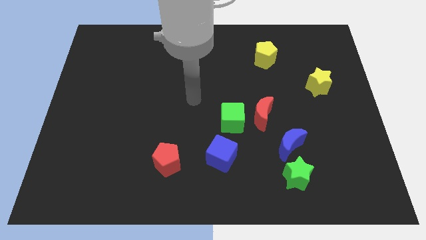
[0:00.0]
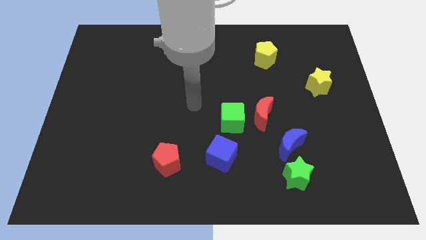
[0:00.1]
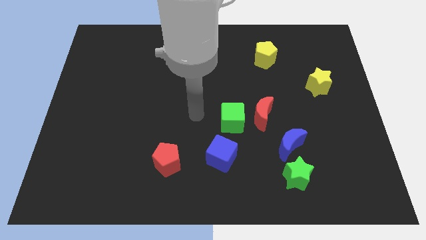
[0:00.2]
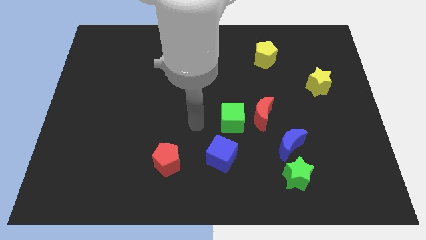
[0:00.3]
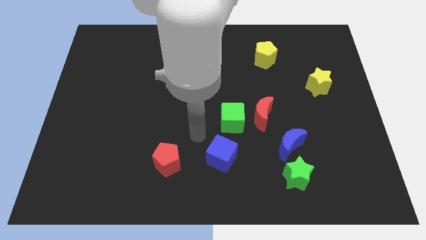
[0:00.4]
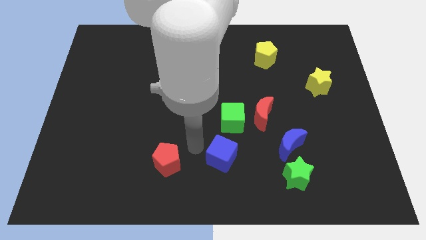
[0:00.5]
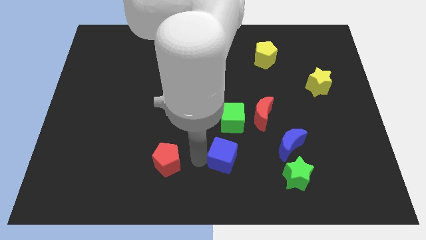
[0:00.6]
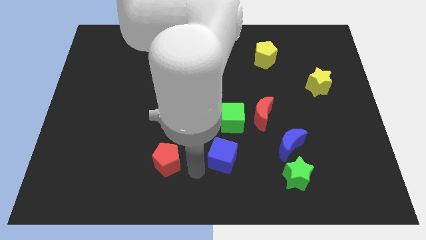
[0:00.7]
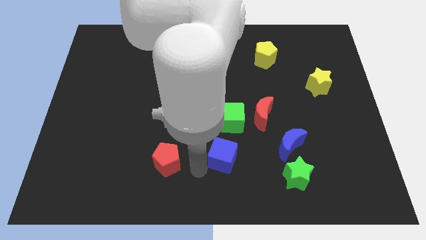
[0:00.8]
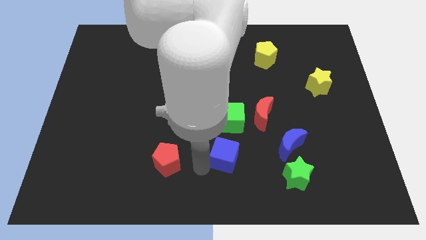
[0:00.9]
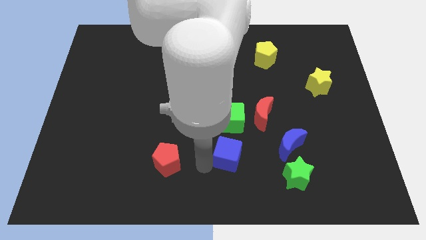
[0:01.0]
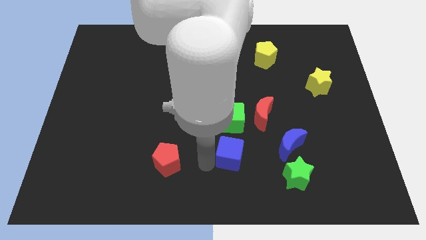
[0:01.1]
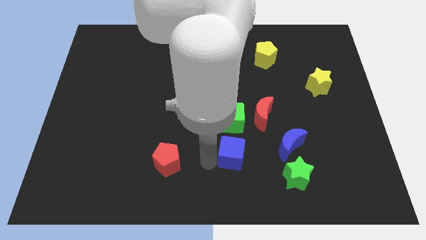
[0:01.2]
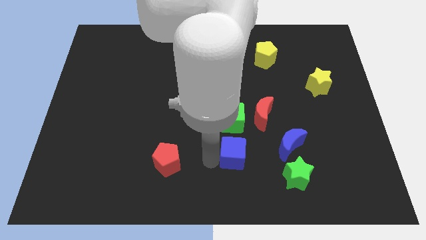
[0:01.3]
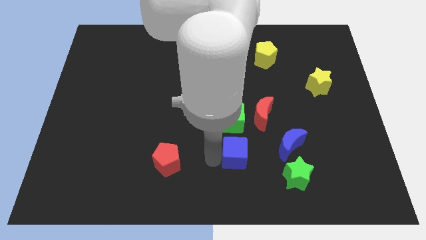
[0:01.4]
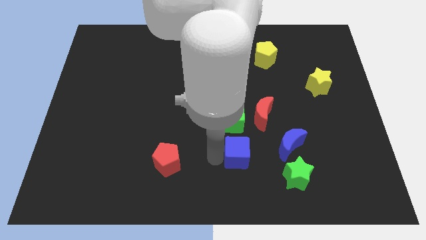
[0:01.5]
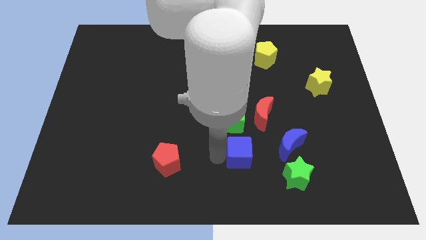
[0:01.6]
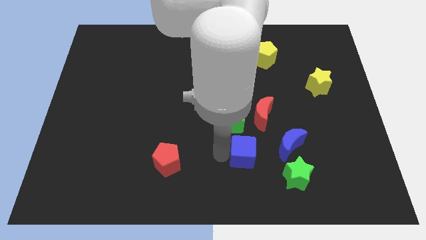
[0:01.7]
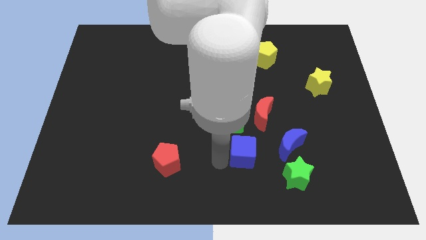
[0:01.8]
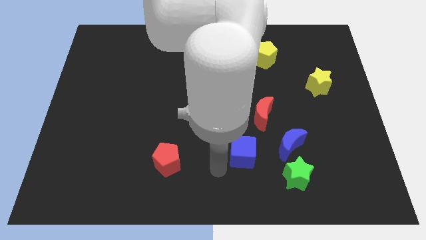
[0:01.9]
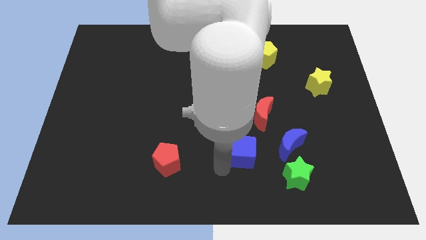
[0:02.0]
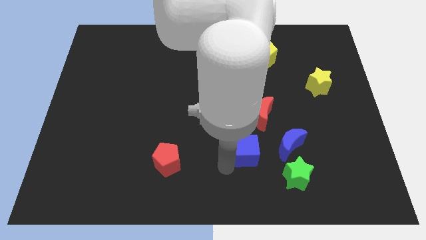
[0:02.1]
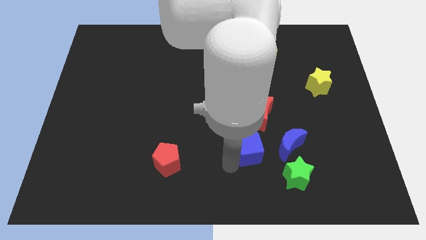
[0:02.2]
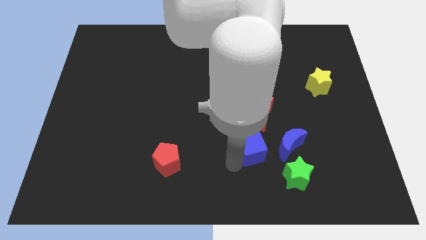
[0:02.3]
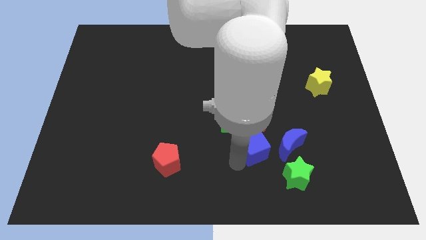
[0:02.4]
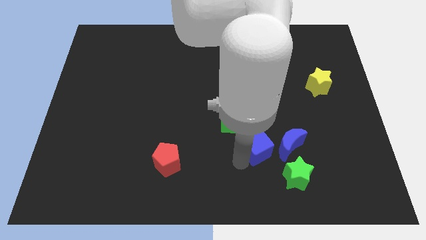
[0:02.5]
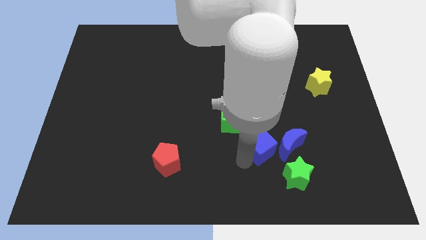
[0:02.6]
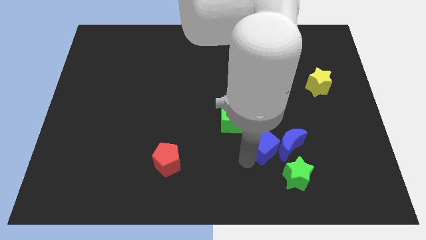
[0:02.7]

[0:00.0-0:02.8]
slide the blue cube slightly up and then to the right

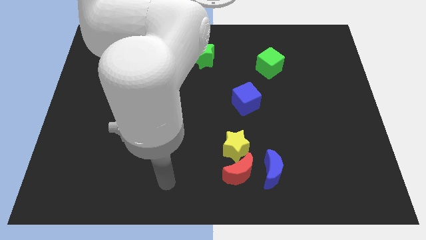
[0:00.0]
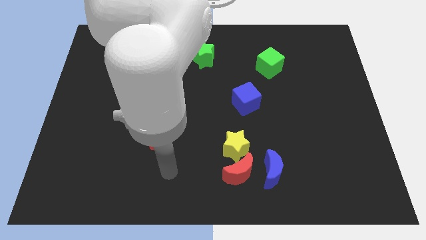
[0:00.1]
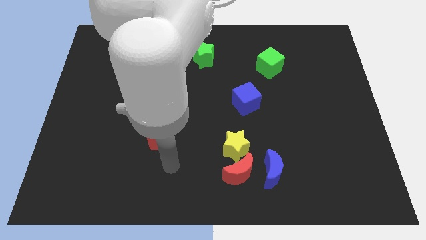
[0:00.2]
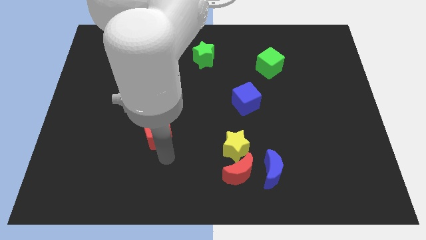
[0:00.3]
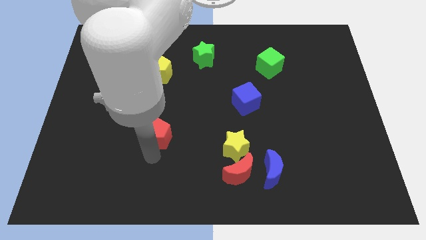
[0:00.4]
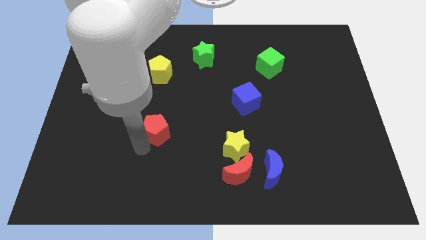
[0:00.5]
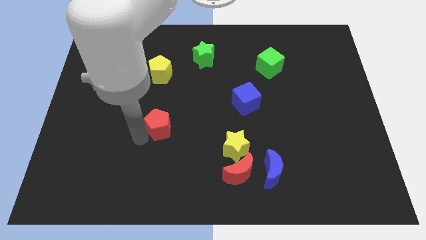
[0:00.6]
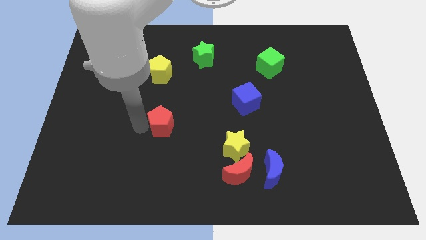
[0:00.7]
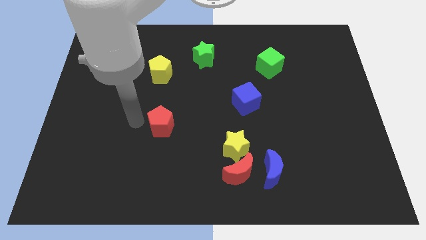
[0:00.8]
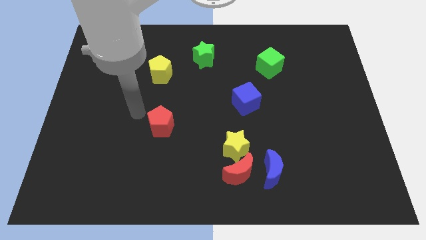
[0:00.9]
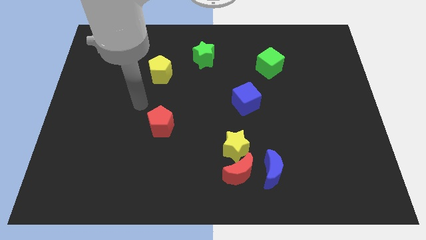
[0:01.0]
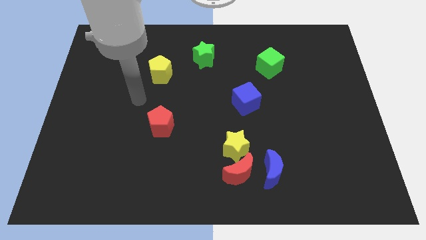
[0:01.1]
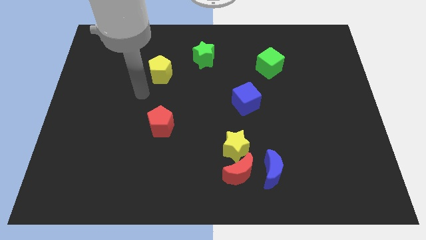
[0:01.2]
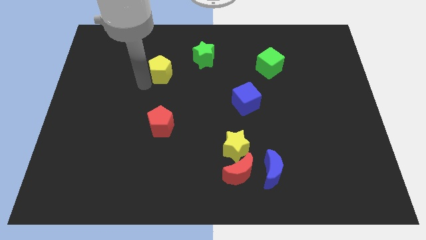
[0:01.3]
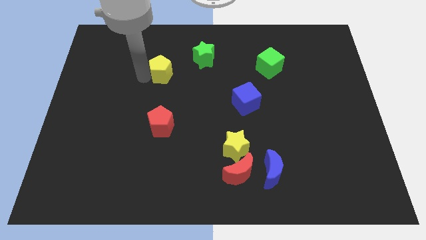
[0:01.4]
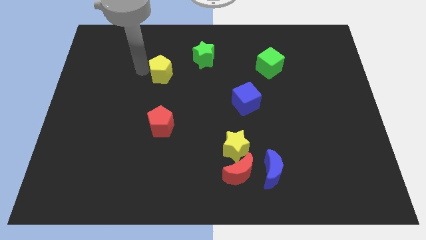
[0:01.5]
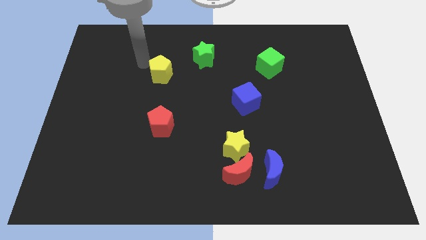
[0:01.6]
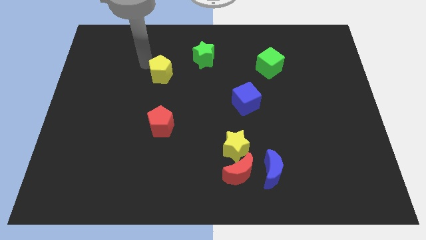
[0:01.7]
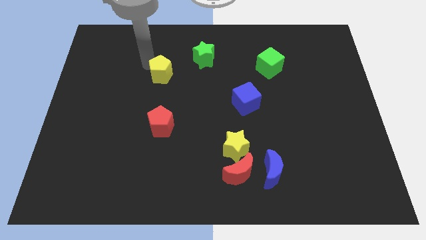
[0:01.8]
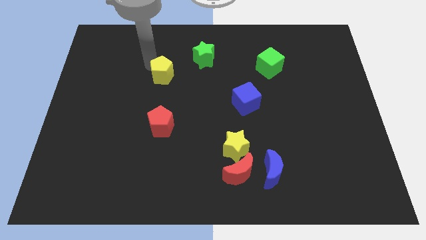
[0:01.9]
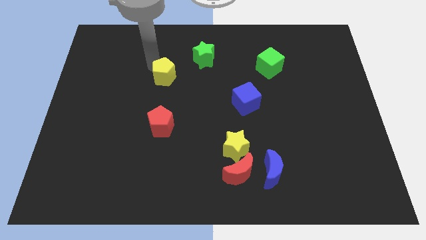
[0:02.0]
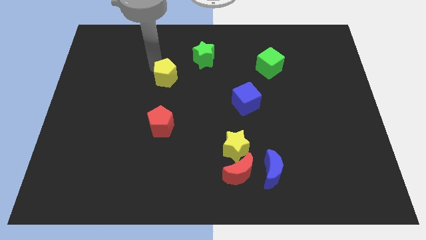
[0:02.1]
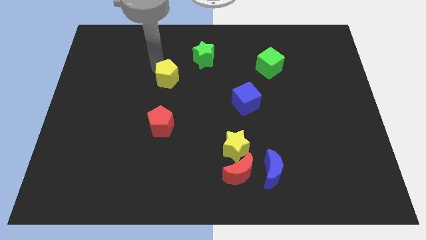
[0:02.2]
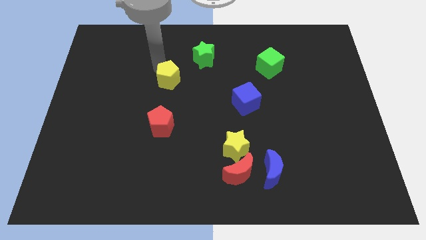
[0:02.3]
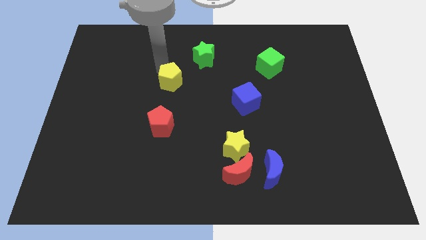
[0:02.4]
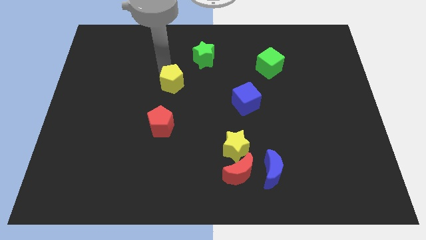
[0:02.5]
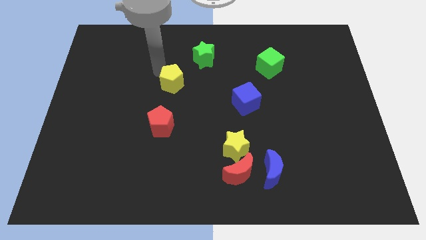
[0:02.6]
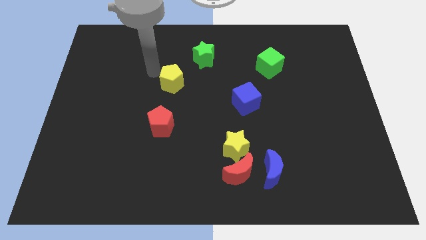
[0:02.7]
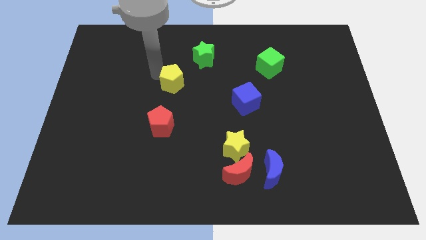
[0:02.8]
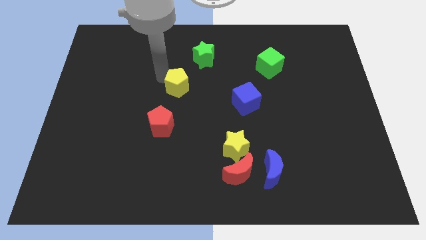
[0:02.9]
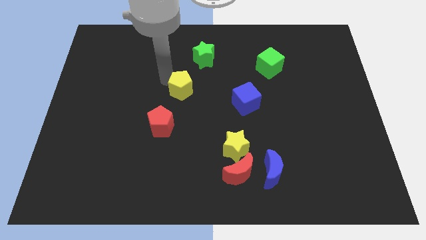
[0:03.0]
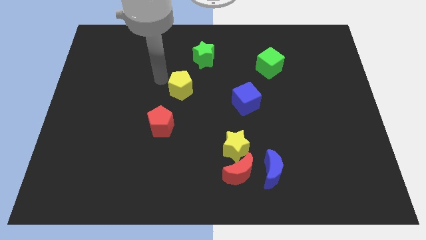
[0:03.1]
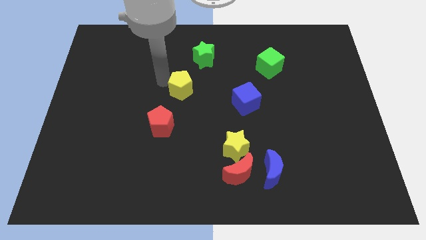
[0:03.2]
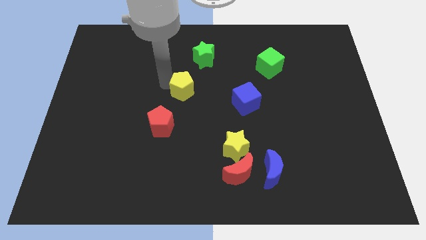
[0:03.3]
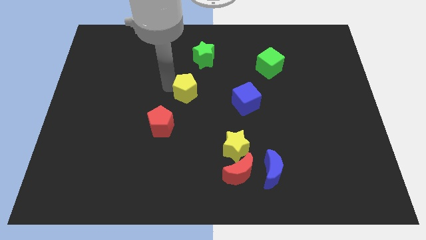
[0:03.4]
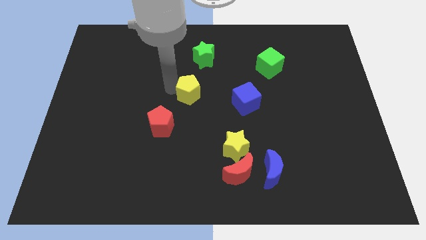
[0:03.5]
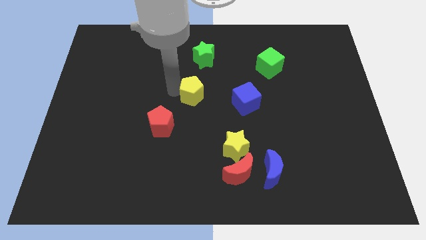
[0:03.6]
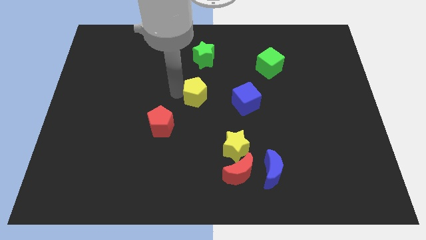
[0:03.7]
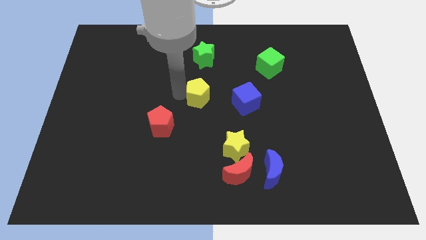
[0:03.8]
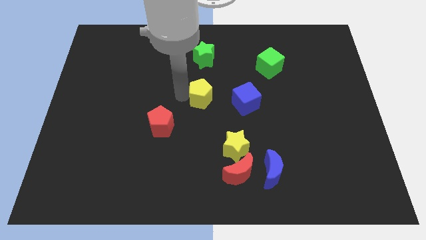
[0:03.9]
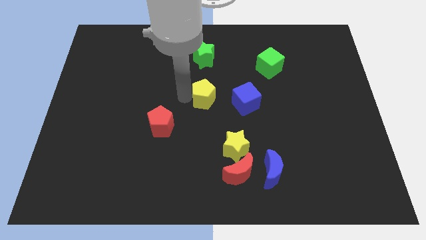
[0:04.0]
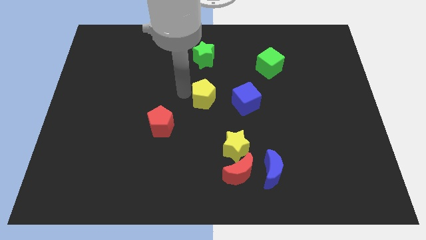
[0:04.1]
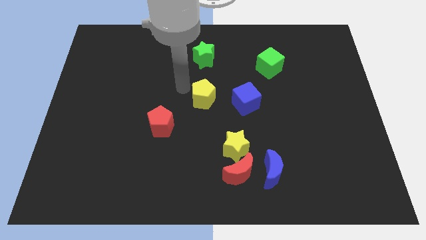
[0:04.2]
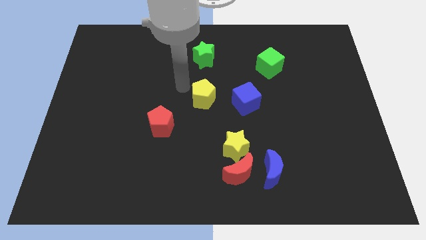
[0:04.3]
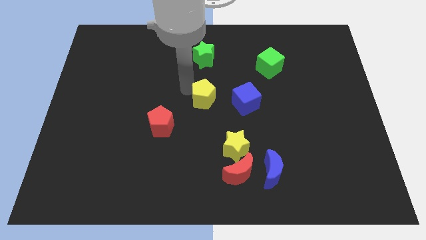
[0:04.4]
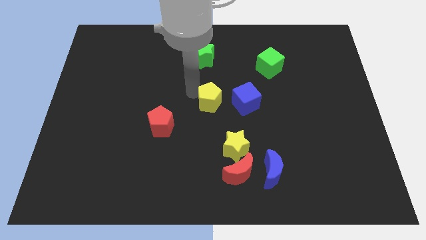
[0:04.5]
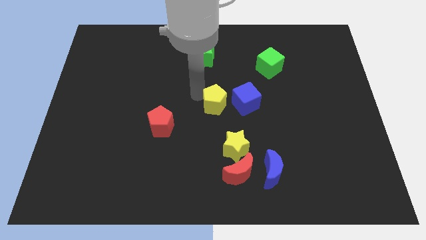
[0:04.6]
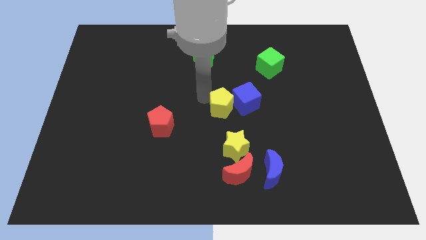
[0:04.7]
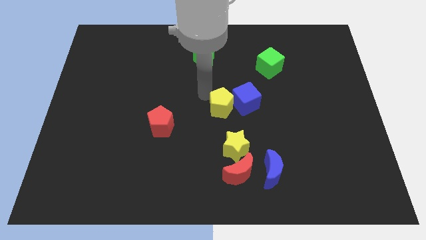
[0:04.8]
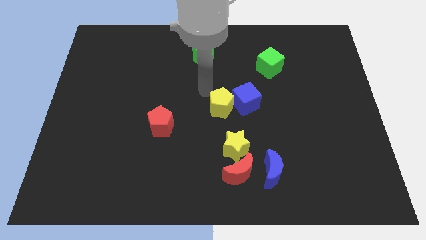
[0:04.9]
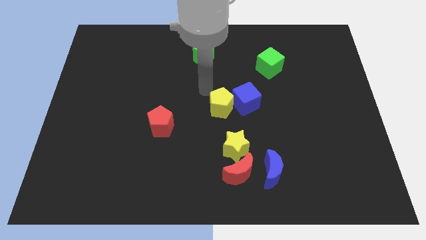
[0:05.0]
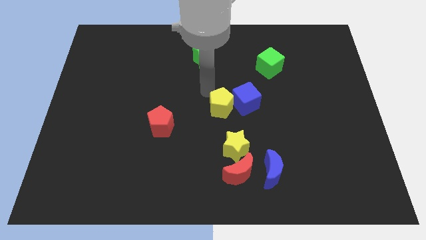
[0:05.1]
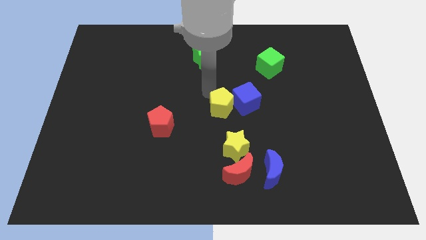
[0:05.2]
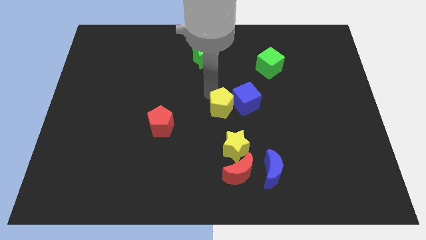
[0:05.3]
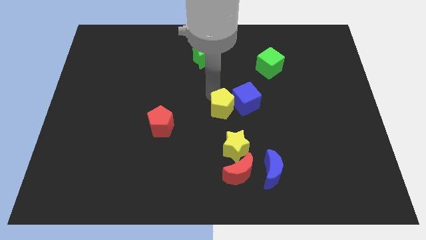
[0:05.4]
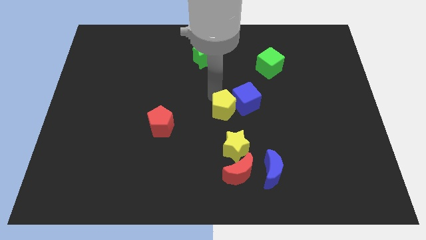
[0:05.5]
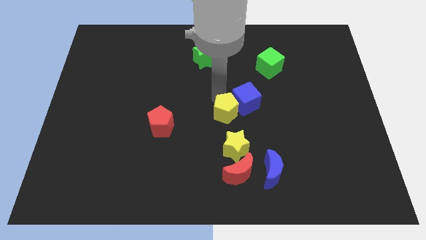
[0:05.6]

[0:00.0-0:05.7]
push the yellow pentagon down and then right
